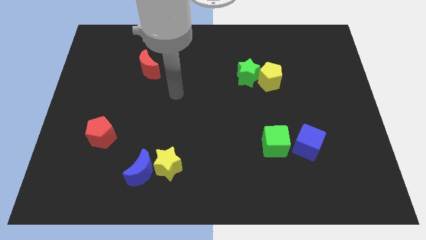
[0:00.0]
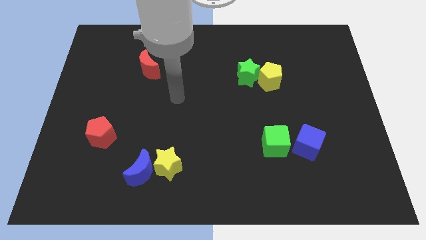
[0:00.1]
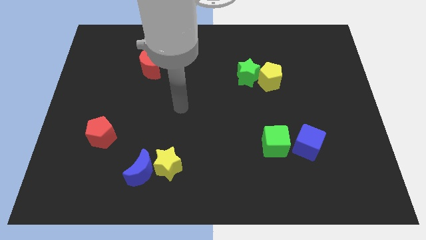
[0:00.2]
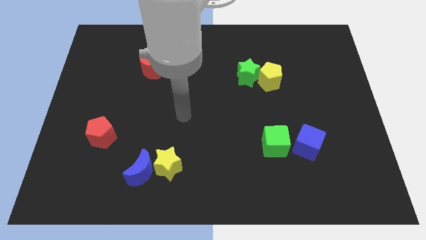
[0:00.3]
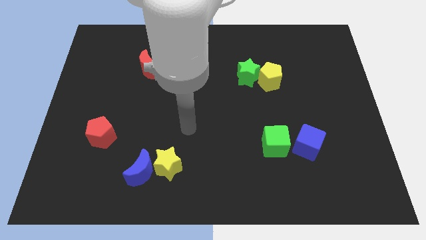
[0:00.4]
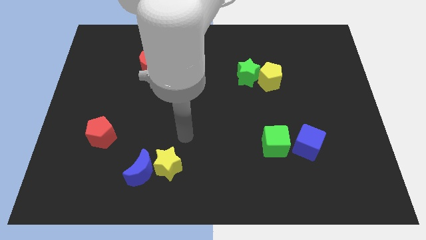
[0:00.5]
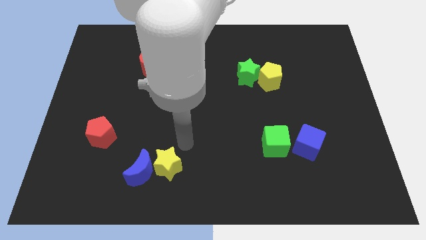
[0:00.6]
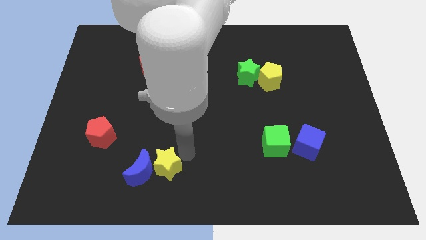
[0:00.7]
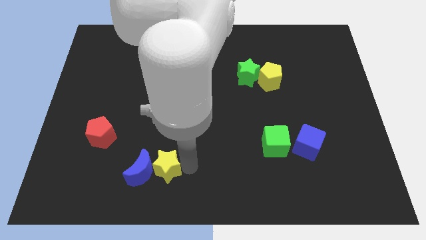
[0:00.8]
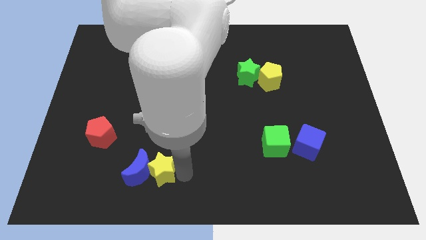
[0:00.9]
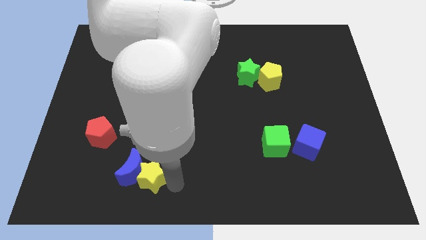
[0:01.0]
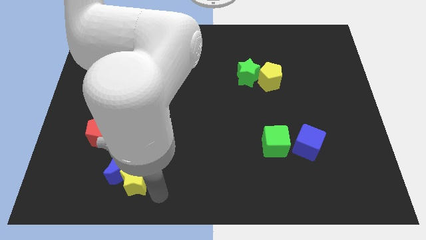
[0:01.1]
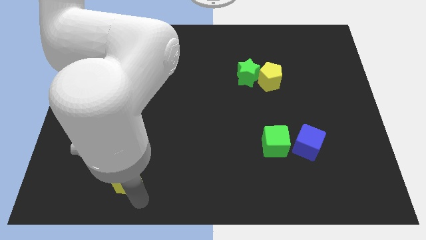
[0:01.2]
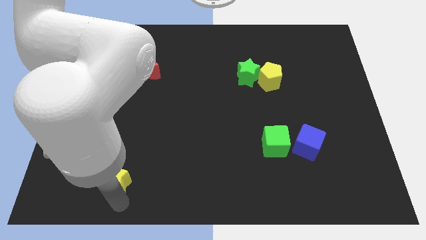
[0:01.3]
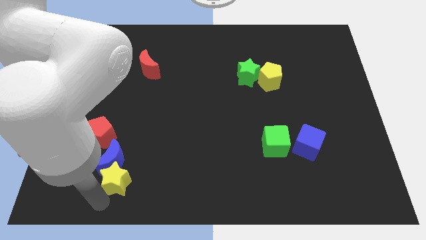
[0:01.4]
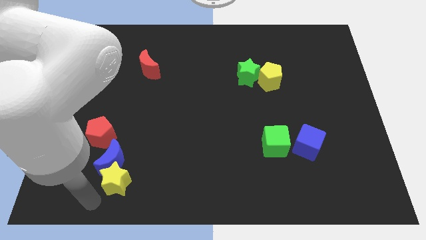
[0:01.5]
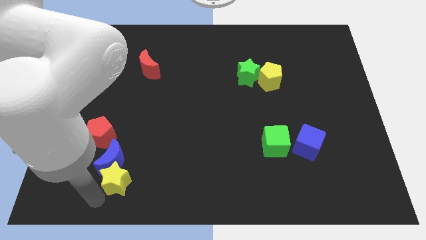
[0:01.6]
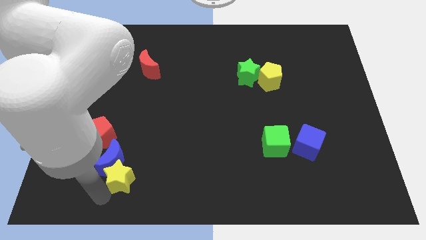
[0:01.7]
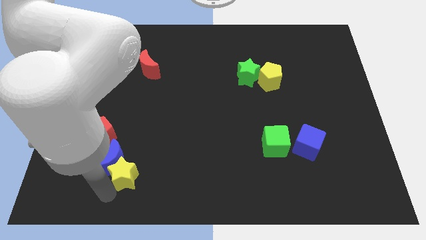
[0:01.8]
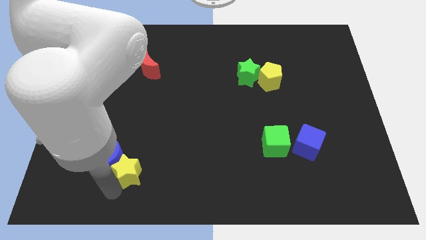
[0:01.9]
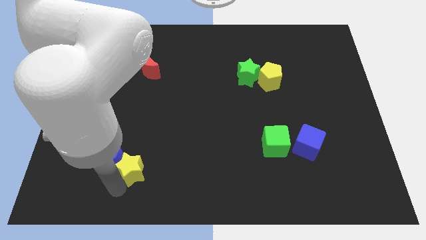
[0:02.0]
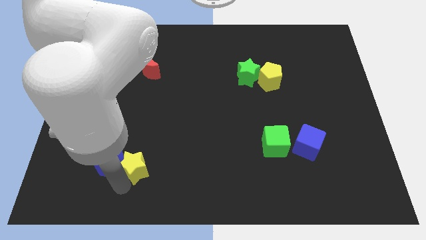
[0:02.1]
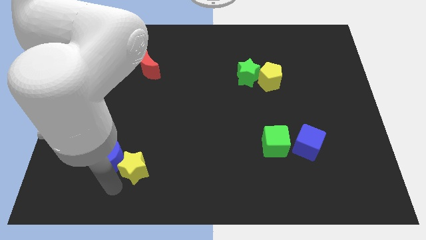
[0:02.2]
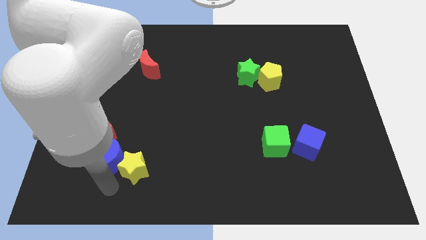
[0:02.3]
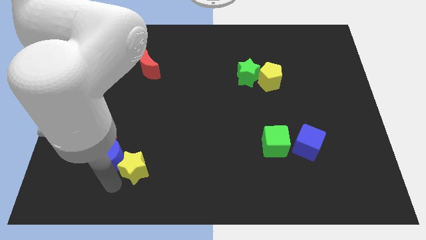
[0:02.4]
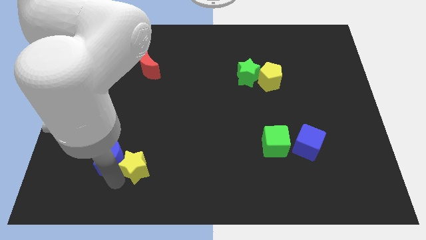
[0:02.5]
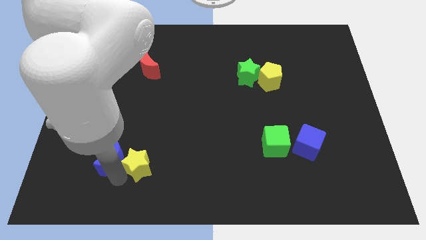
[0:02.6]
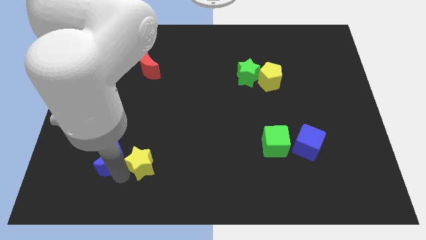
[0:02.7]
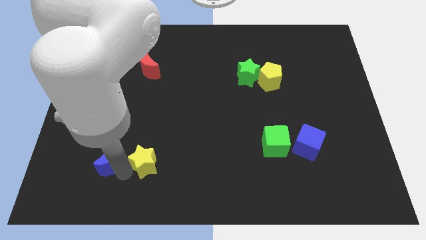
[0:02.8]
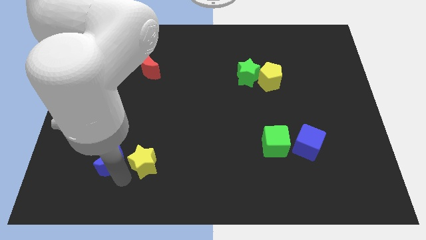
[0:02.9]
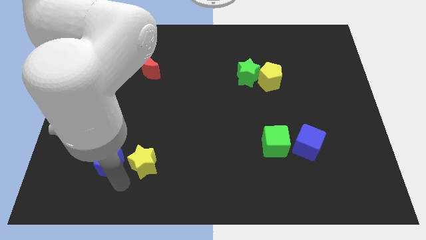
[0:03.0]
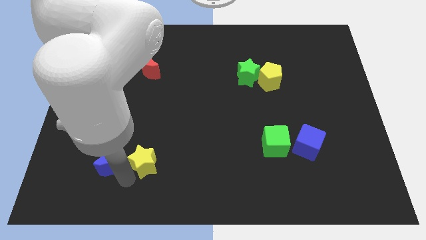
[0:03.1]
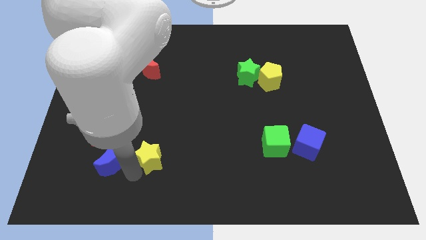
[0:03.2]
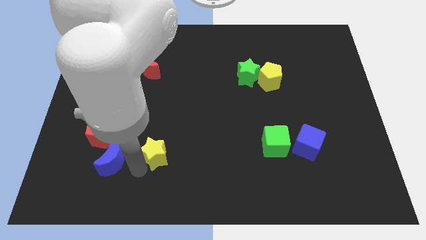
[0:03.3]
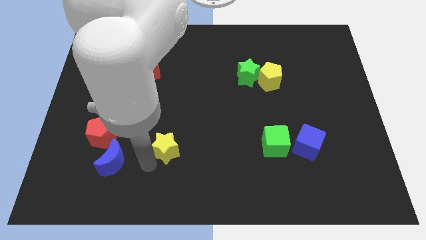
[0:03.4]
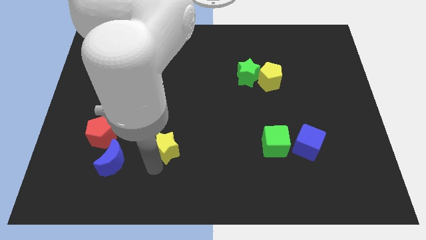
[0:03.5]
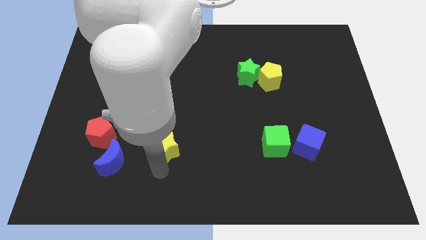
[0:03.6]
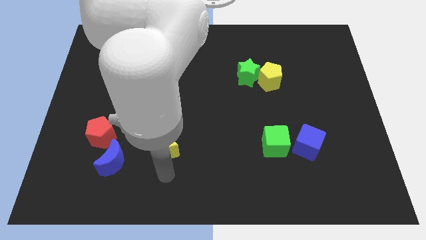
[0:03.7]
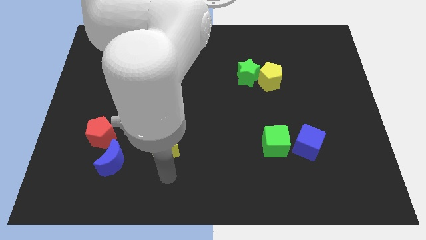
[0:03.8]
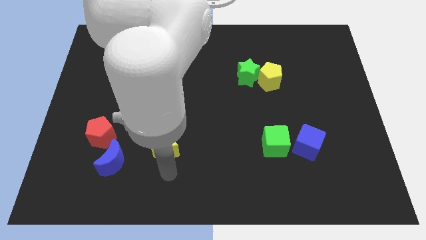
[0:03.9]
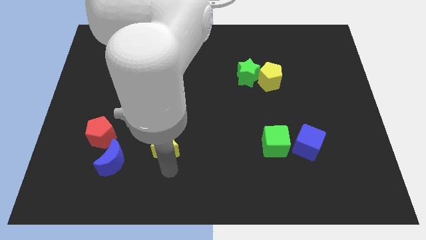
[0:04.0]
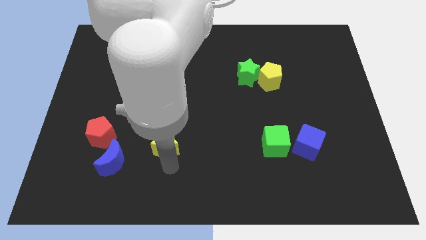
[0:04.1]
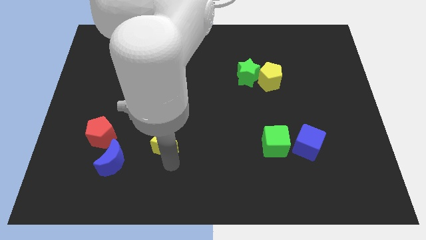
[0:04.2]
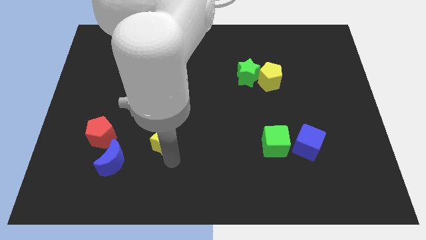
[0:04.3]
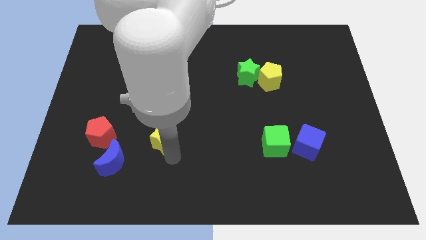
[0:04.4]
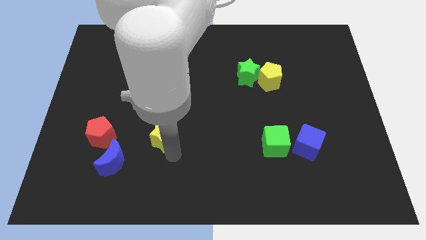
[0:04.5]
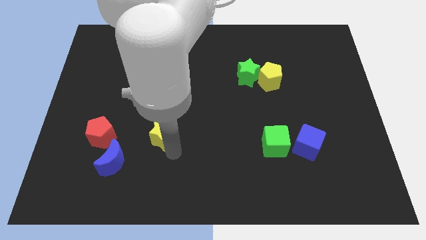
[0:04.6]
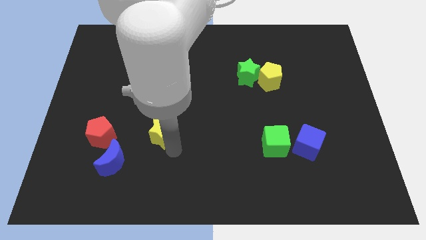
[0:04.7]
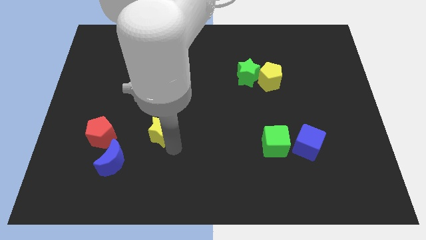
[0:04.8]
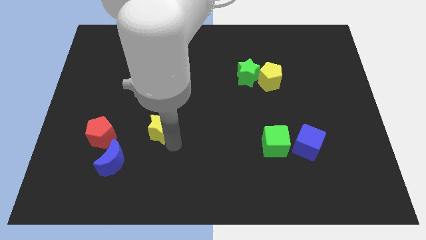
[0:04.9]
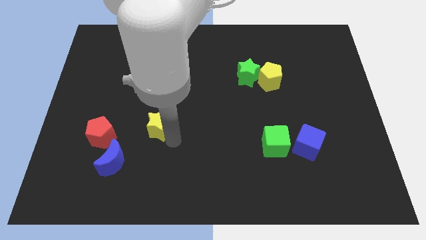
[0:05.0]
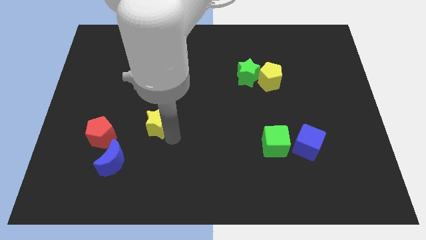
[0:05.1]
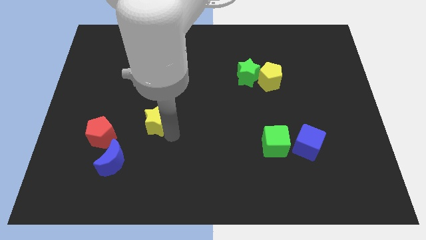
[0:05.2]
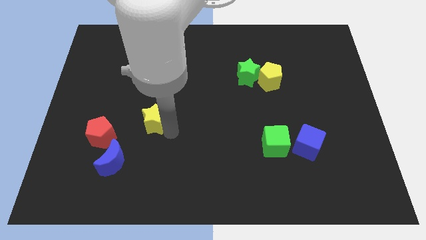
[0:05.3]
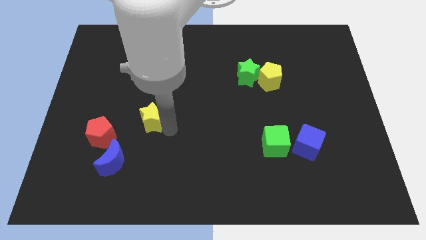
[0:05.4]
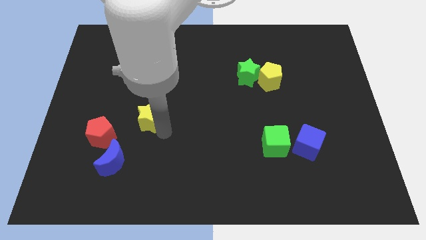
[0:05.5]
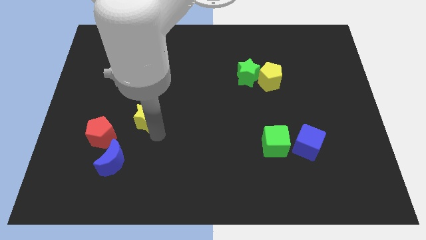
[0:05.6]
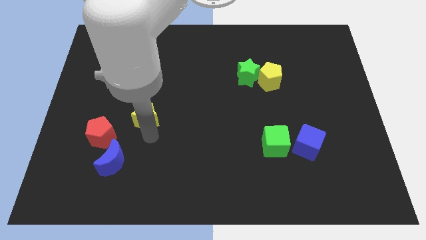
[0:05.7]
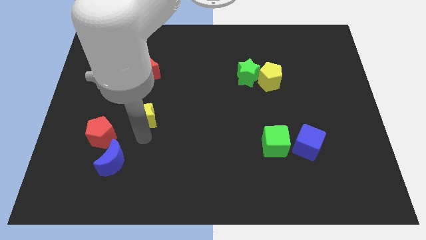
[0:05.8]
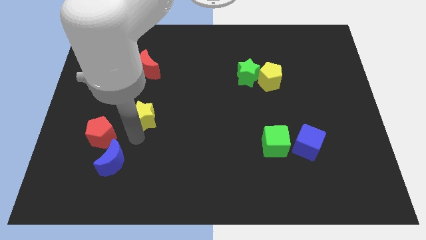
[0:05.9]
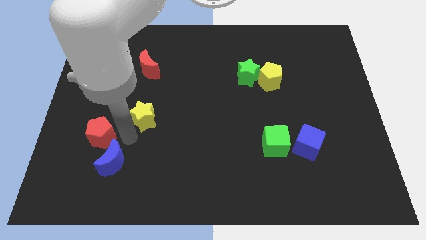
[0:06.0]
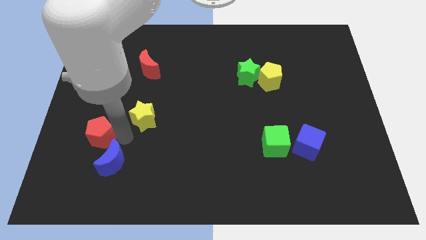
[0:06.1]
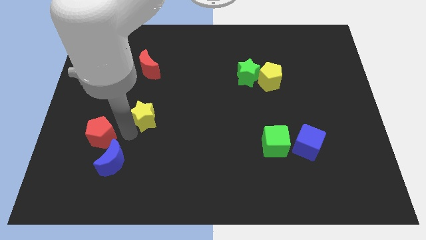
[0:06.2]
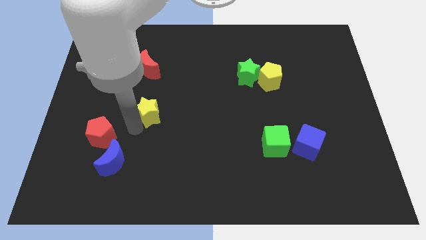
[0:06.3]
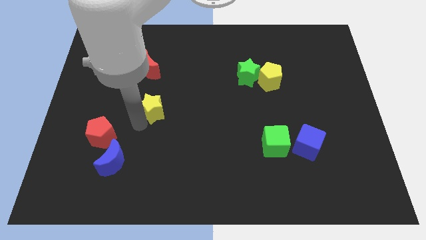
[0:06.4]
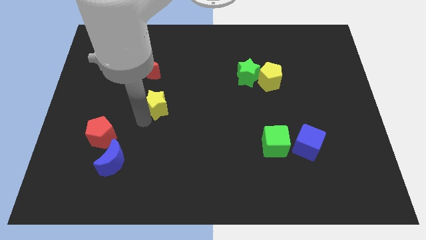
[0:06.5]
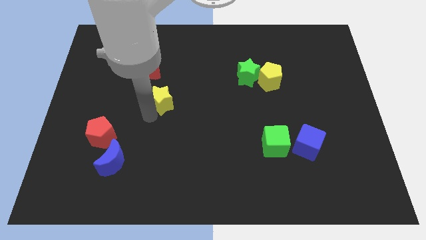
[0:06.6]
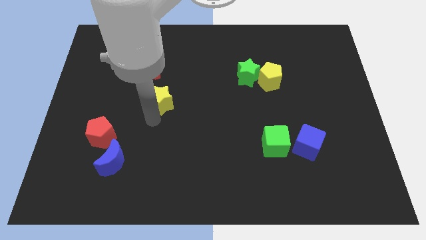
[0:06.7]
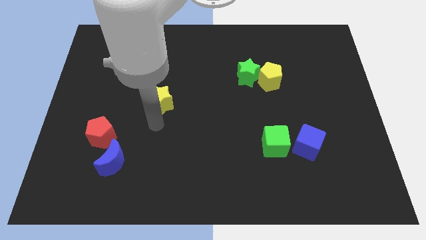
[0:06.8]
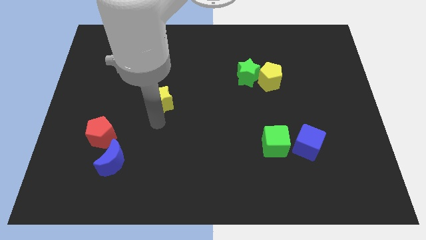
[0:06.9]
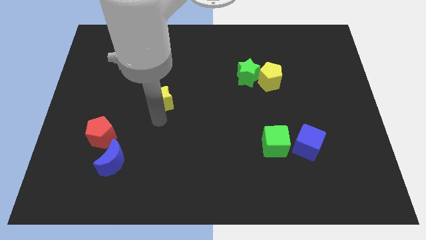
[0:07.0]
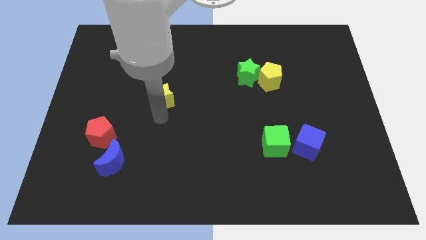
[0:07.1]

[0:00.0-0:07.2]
put the yellow star diagonally down and to the right of the red moon

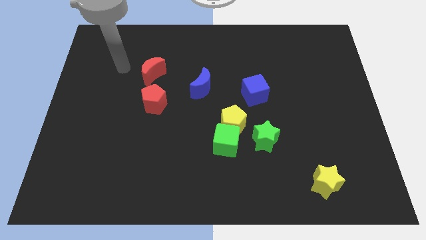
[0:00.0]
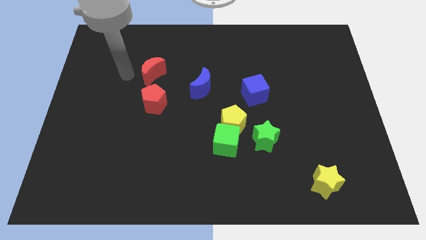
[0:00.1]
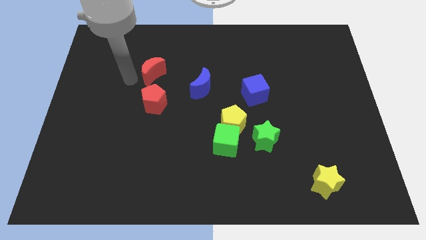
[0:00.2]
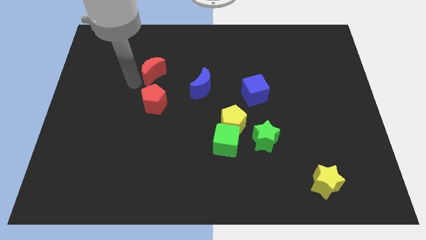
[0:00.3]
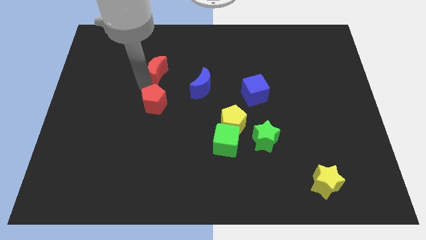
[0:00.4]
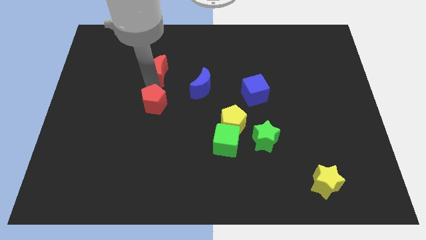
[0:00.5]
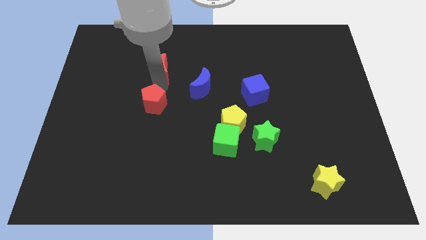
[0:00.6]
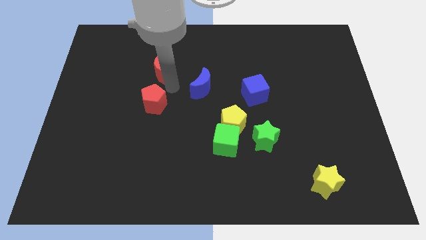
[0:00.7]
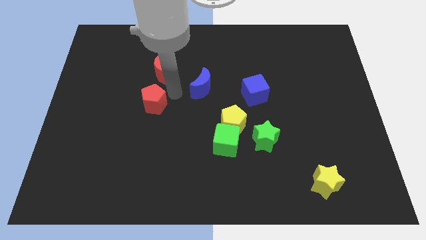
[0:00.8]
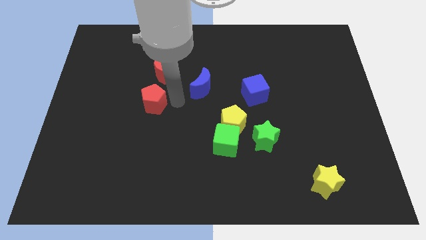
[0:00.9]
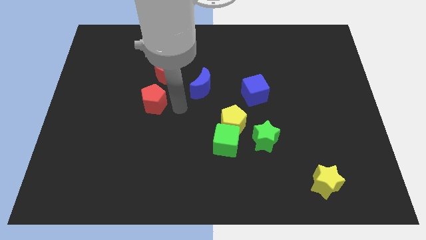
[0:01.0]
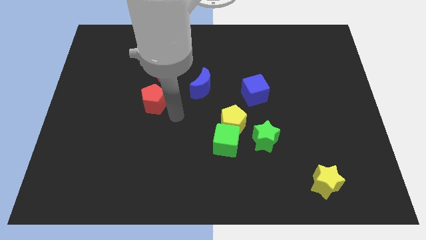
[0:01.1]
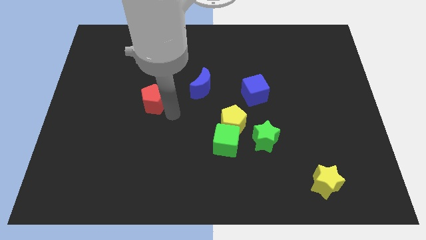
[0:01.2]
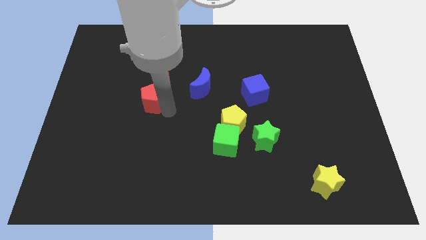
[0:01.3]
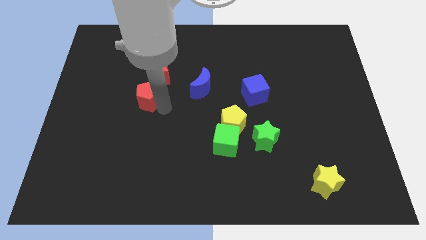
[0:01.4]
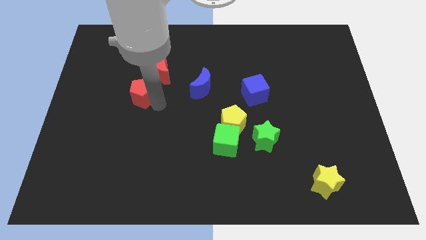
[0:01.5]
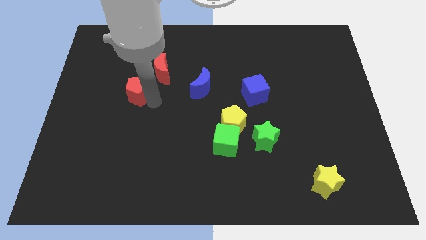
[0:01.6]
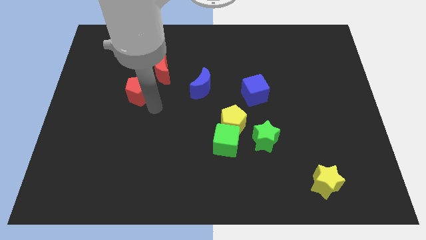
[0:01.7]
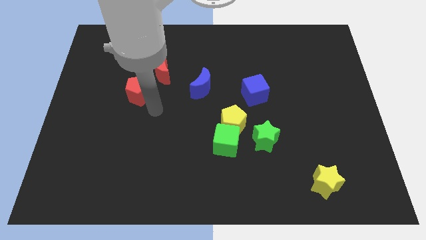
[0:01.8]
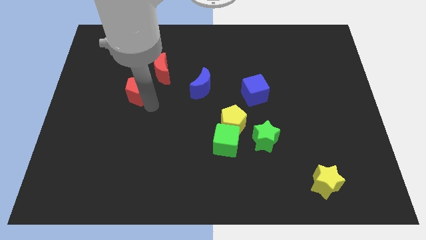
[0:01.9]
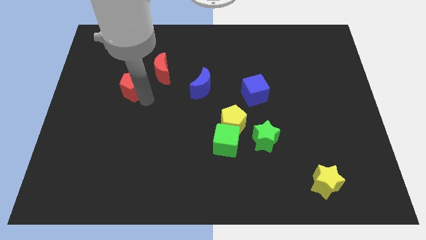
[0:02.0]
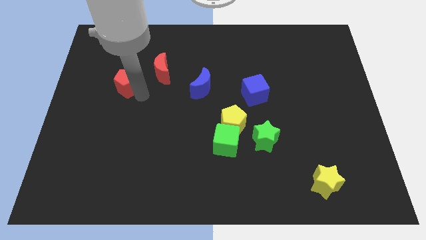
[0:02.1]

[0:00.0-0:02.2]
slide the red pentagon just left of the red moon
